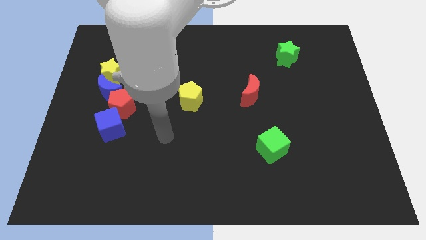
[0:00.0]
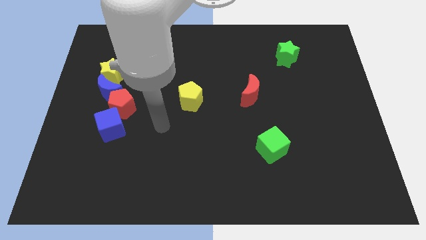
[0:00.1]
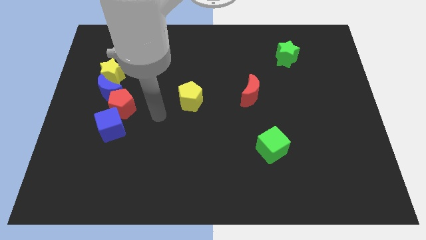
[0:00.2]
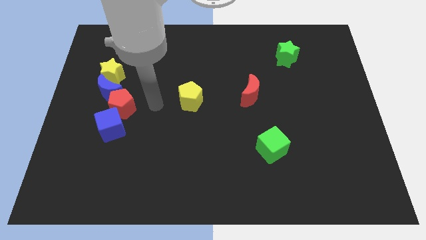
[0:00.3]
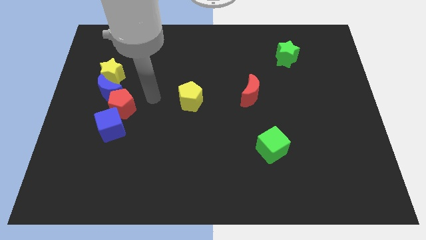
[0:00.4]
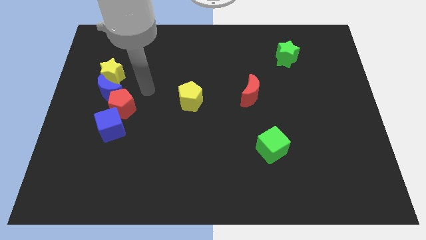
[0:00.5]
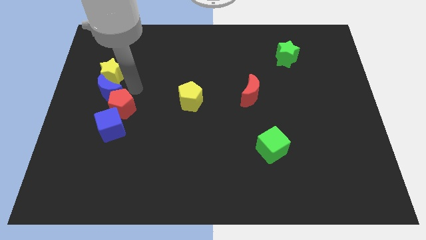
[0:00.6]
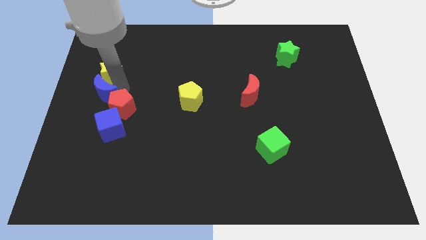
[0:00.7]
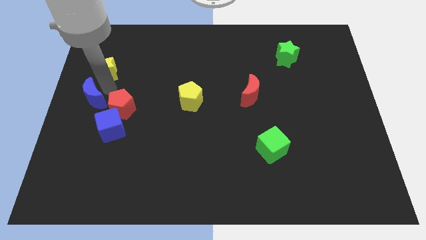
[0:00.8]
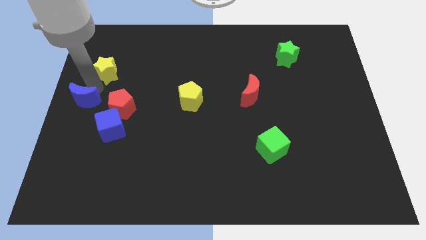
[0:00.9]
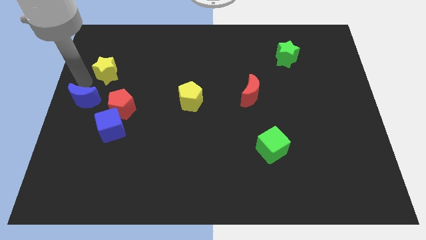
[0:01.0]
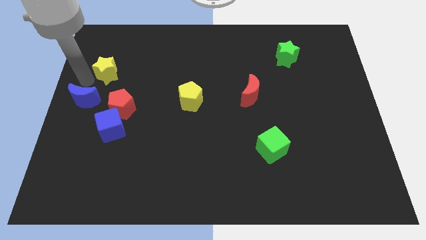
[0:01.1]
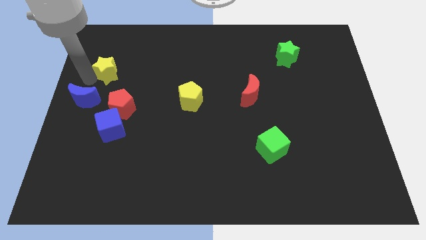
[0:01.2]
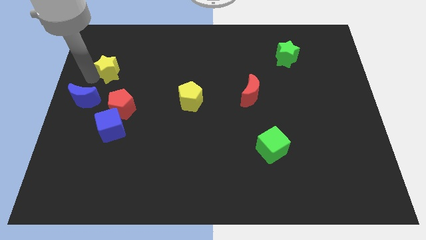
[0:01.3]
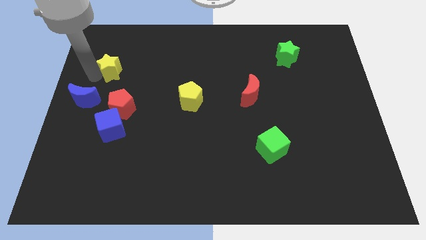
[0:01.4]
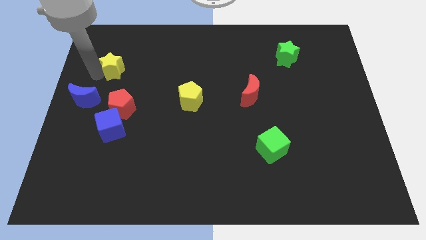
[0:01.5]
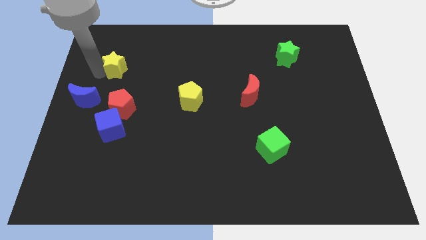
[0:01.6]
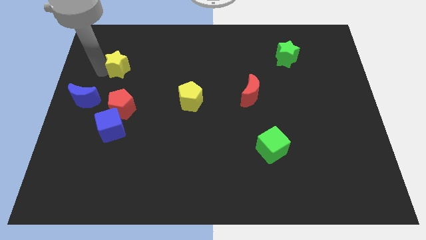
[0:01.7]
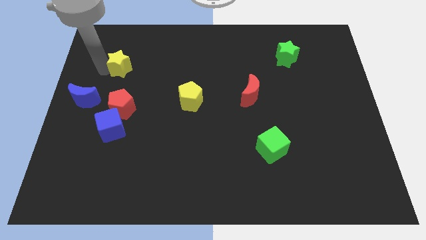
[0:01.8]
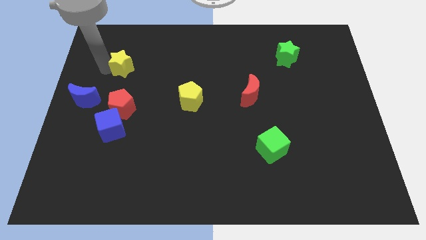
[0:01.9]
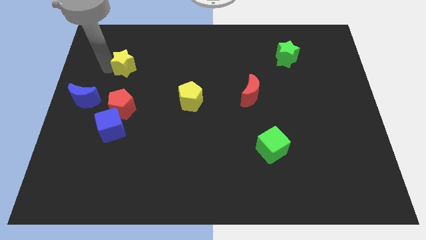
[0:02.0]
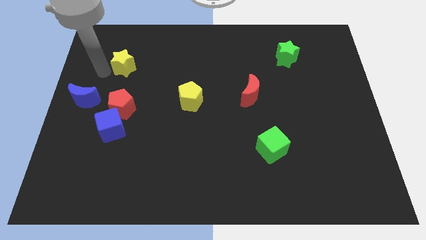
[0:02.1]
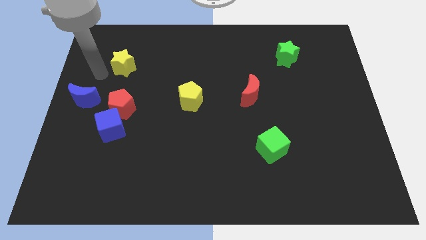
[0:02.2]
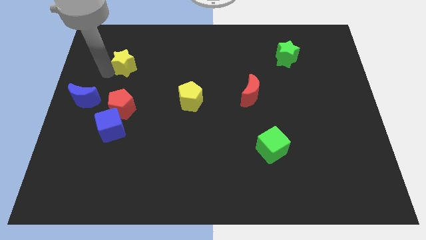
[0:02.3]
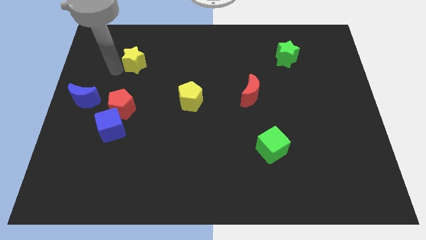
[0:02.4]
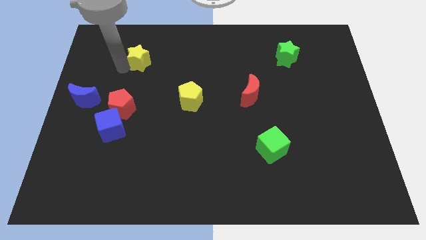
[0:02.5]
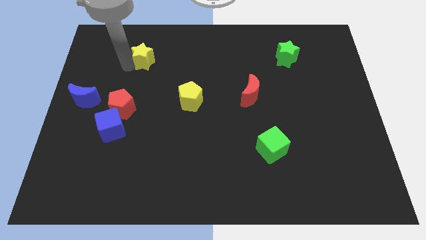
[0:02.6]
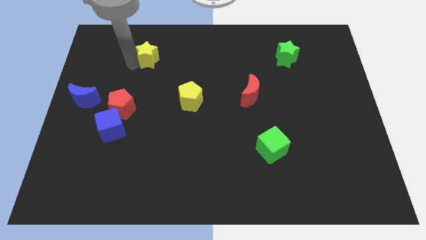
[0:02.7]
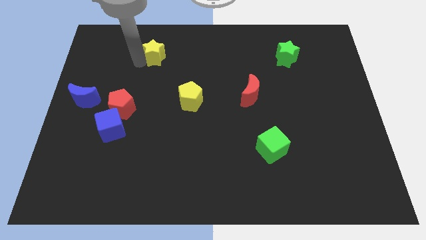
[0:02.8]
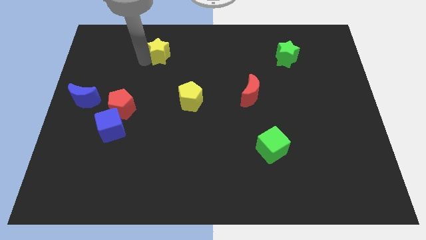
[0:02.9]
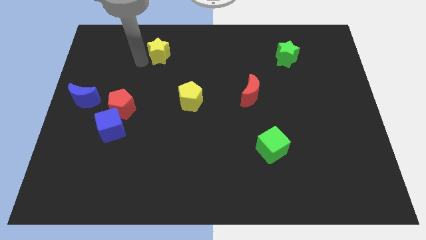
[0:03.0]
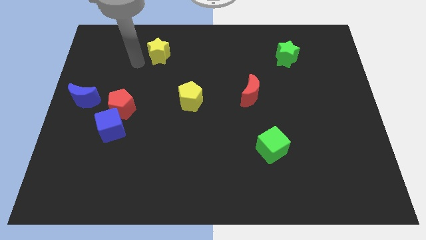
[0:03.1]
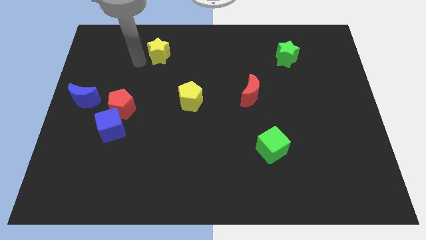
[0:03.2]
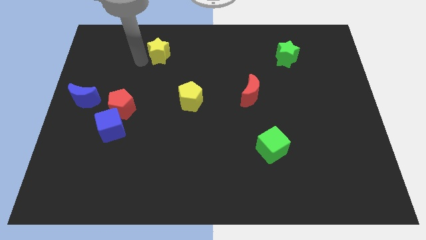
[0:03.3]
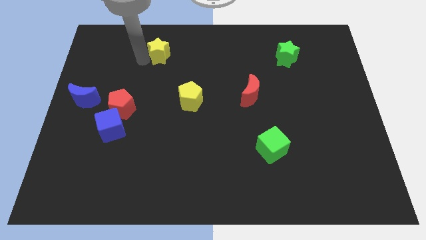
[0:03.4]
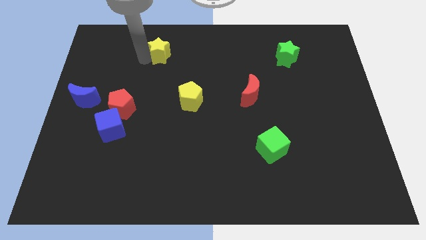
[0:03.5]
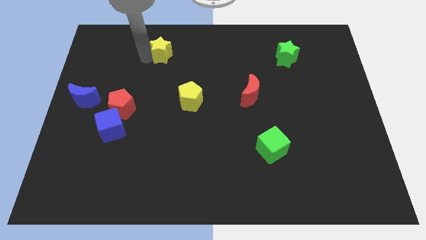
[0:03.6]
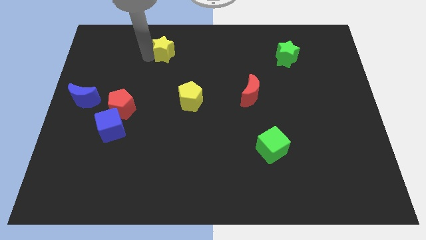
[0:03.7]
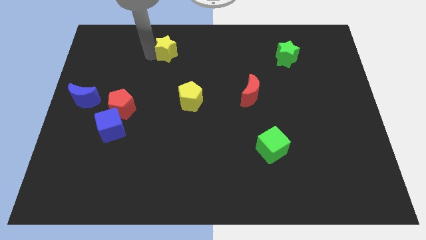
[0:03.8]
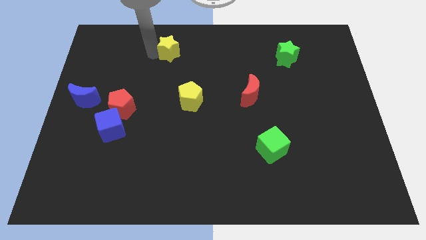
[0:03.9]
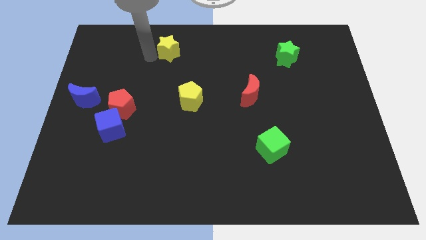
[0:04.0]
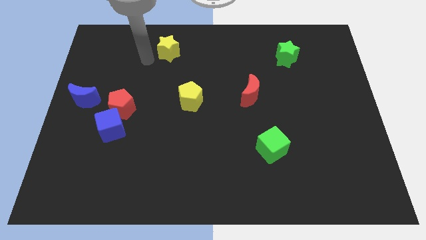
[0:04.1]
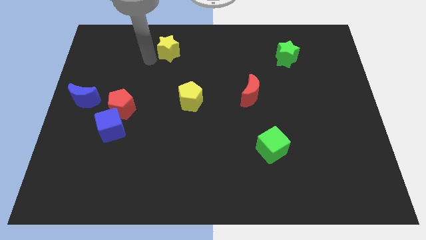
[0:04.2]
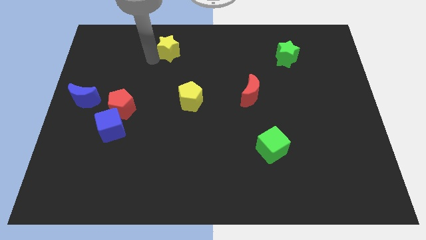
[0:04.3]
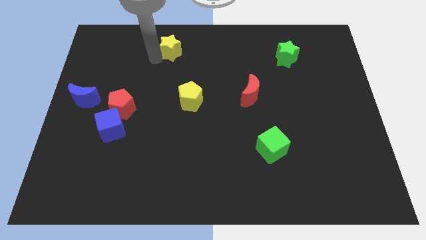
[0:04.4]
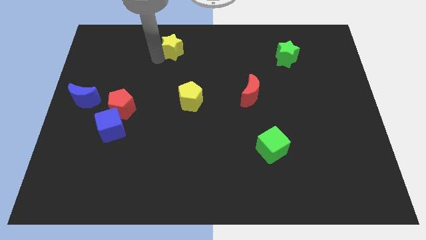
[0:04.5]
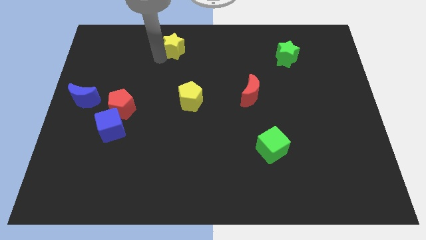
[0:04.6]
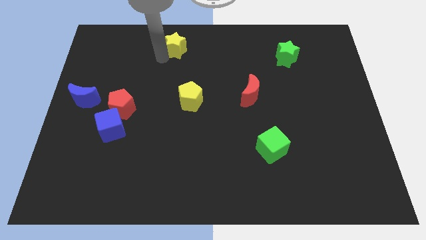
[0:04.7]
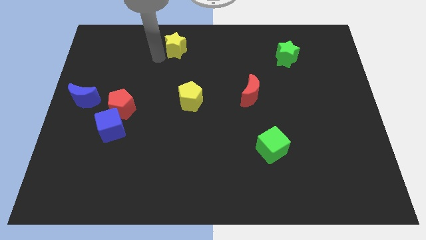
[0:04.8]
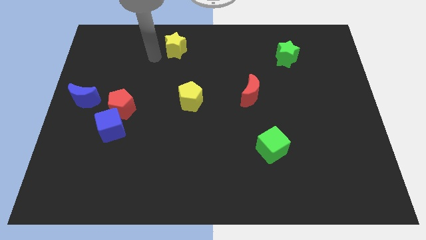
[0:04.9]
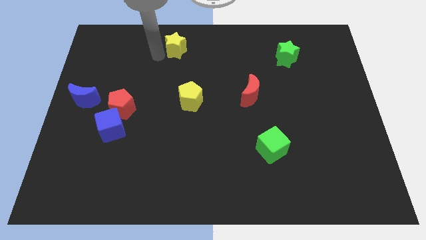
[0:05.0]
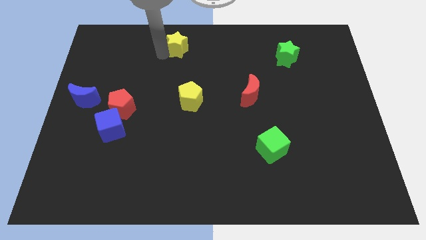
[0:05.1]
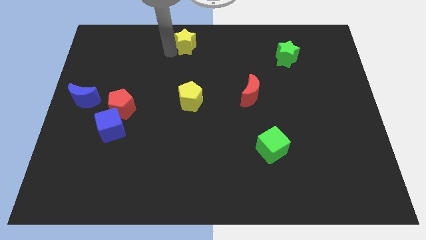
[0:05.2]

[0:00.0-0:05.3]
move the yellow star to the top

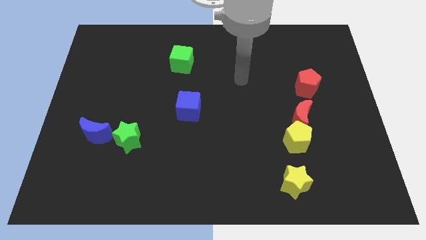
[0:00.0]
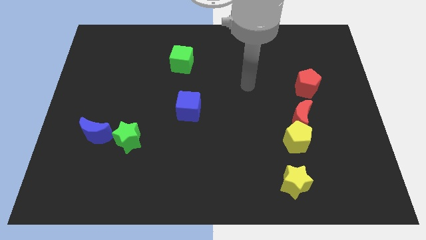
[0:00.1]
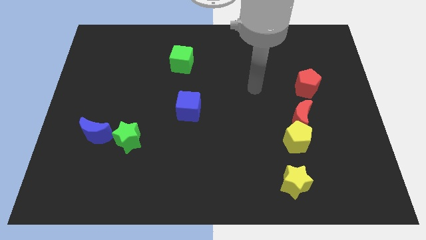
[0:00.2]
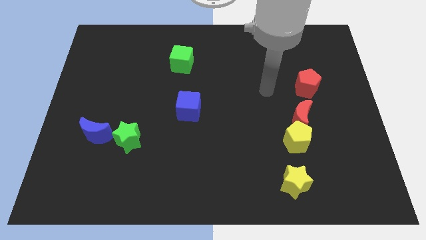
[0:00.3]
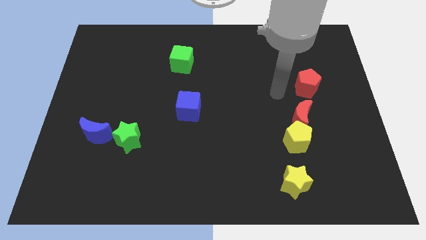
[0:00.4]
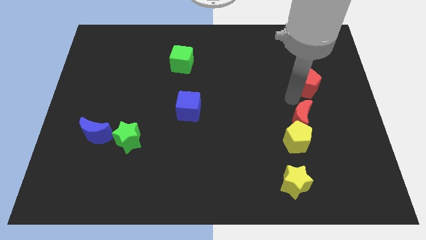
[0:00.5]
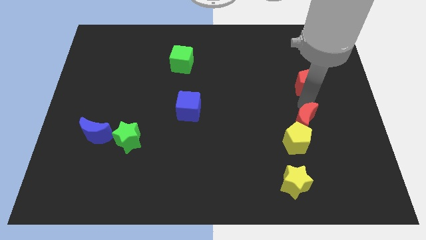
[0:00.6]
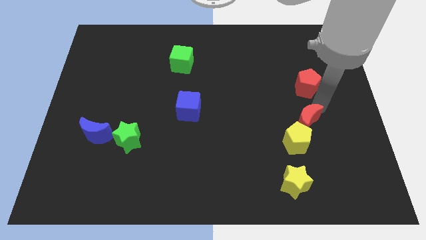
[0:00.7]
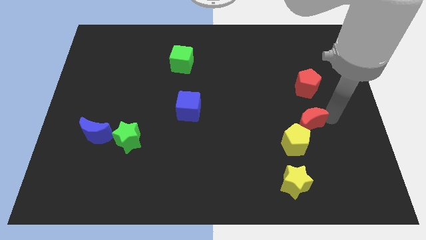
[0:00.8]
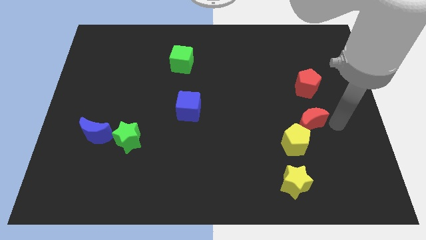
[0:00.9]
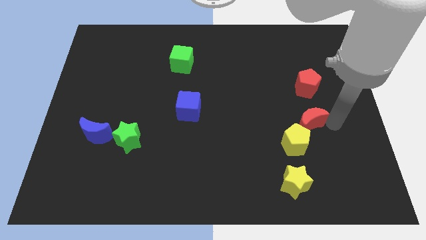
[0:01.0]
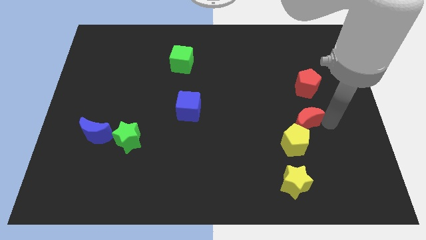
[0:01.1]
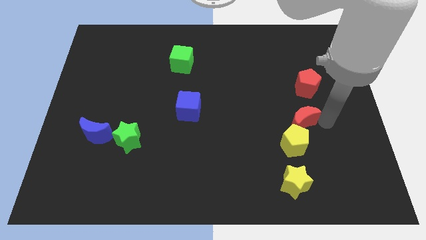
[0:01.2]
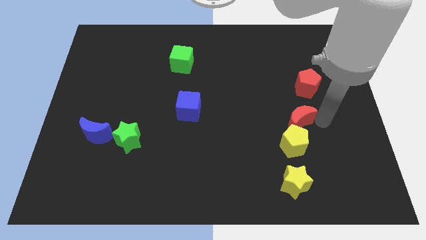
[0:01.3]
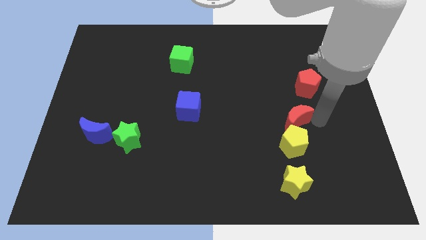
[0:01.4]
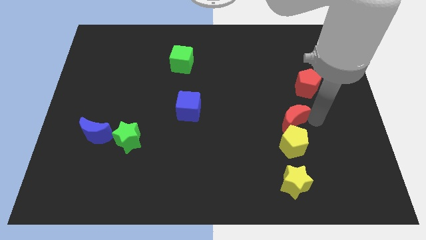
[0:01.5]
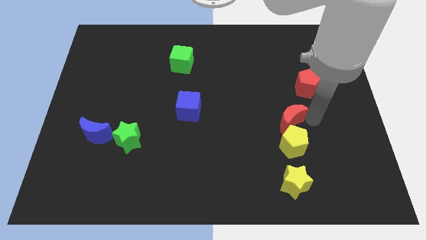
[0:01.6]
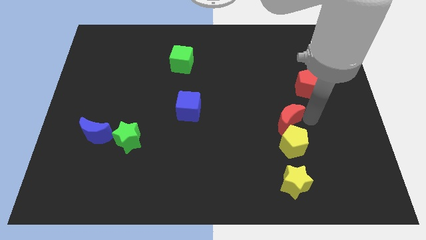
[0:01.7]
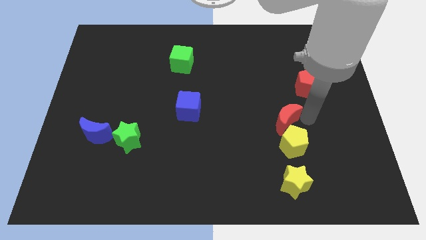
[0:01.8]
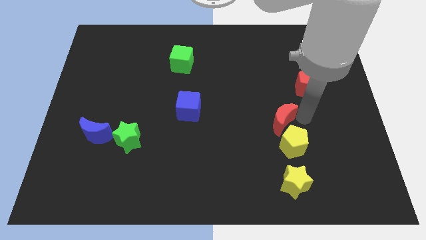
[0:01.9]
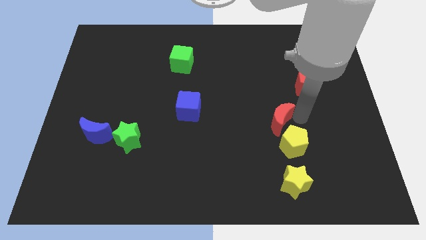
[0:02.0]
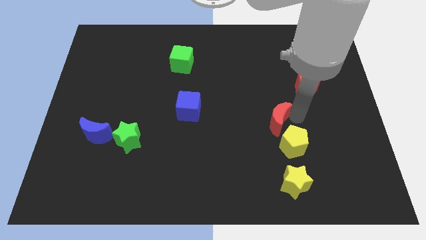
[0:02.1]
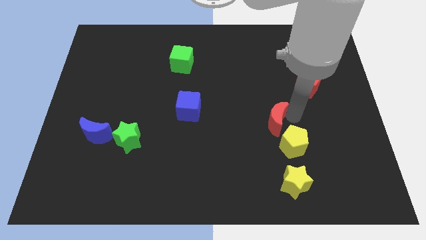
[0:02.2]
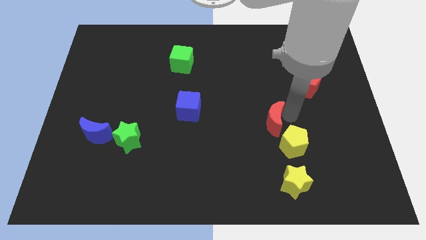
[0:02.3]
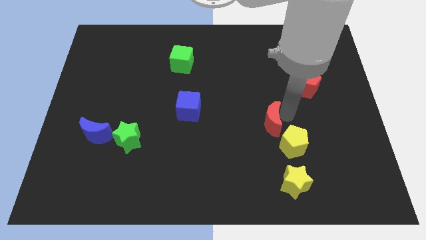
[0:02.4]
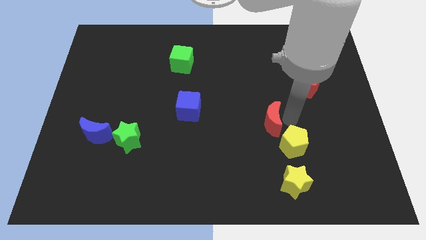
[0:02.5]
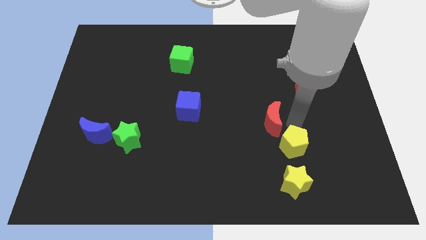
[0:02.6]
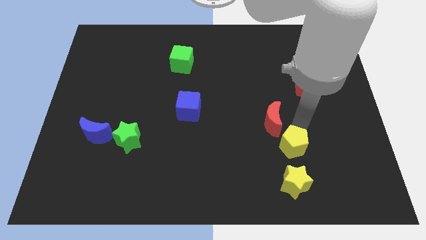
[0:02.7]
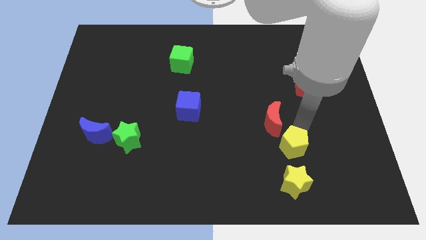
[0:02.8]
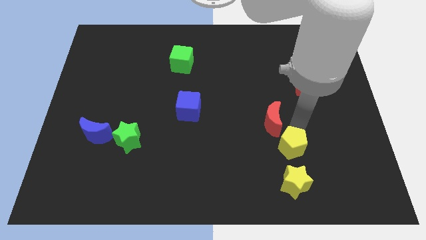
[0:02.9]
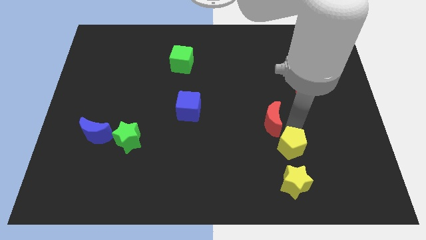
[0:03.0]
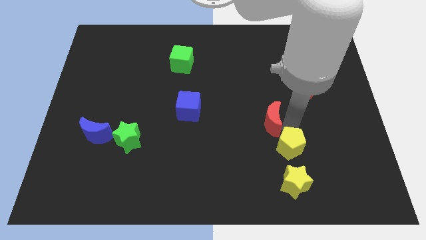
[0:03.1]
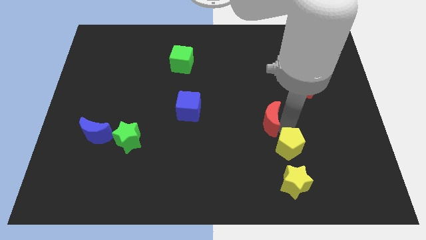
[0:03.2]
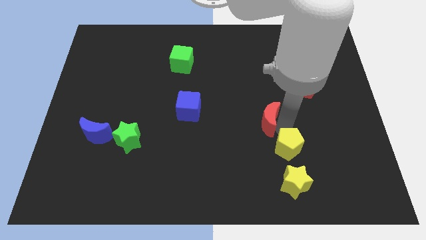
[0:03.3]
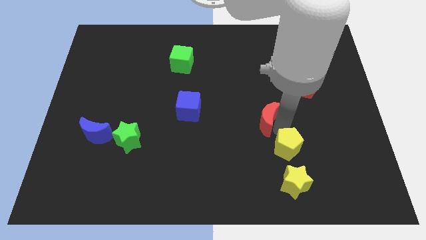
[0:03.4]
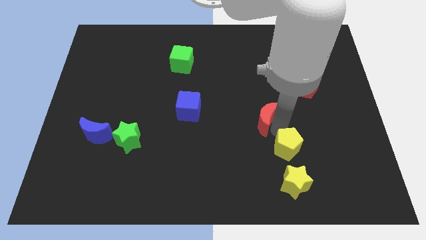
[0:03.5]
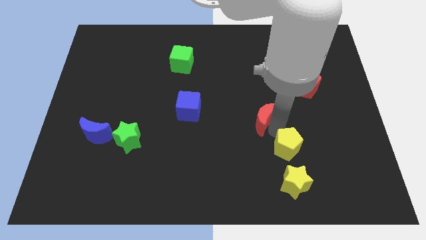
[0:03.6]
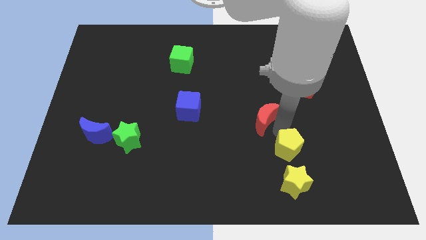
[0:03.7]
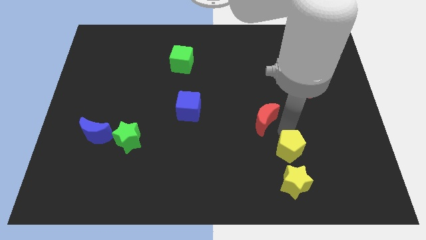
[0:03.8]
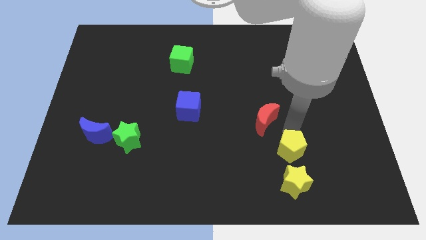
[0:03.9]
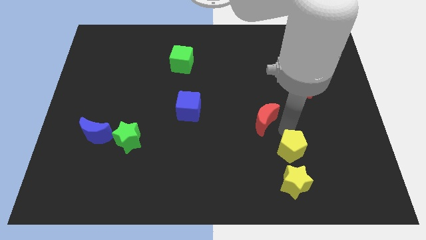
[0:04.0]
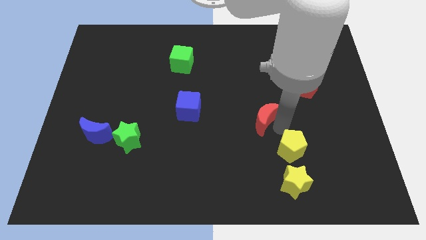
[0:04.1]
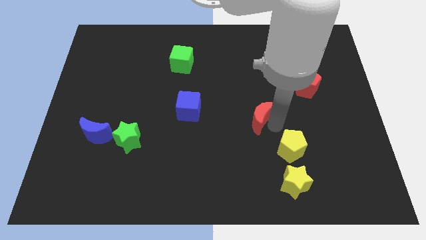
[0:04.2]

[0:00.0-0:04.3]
put the red moon to the center
